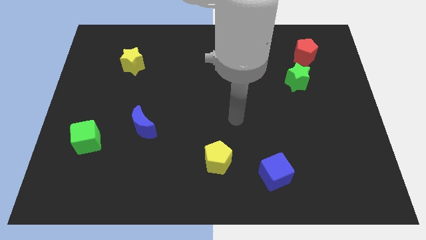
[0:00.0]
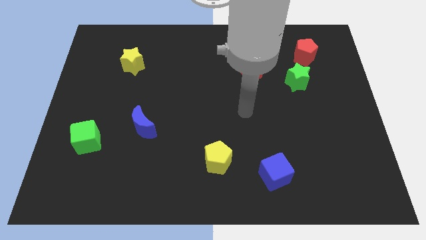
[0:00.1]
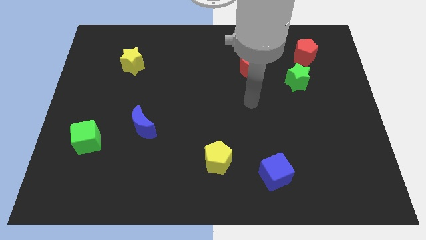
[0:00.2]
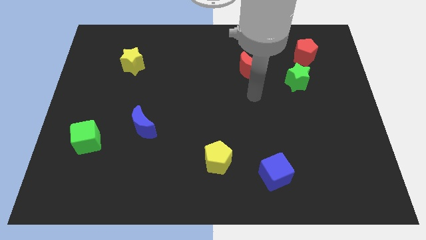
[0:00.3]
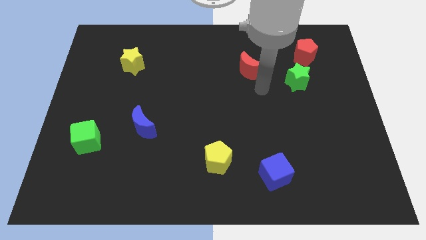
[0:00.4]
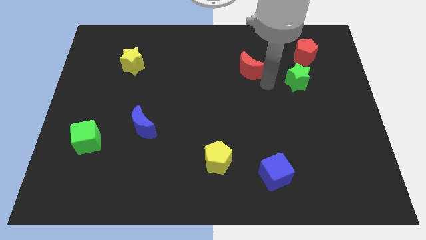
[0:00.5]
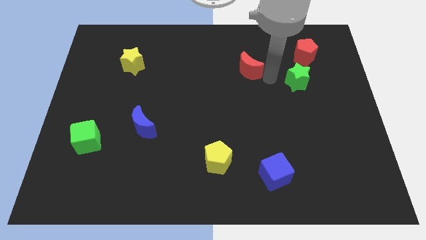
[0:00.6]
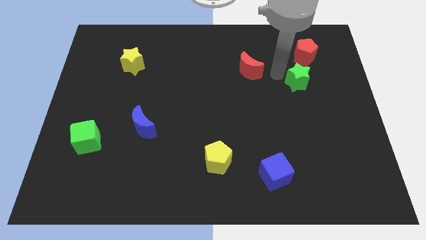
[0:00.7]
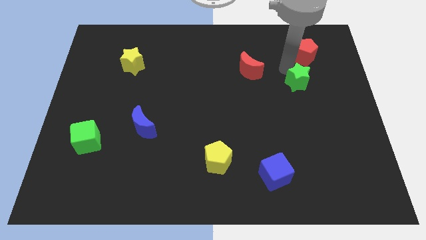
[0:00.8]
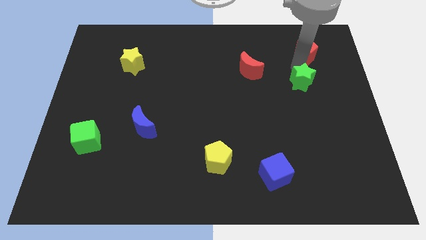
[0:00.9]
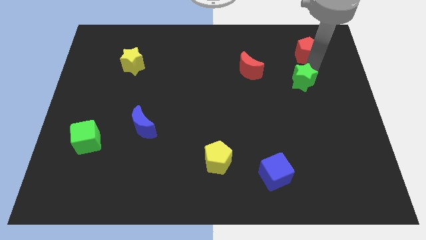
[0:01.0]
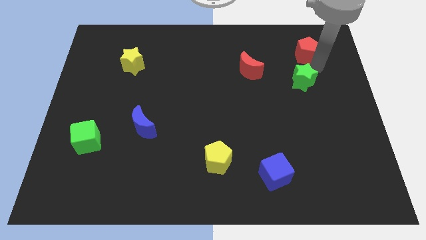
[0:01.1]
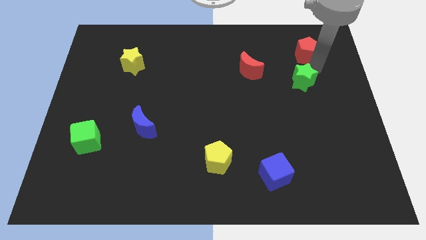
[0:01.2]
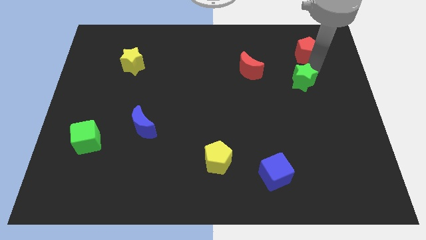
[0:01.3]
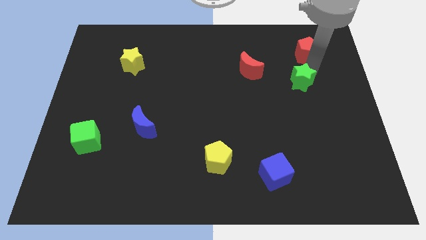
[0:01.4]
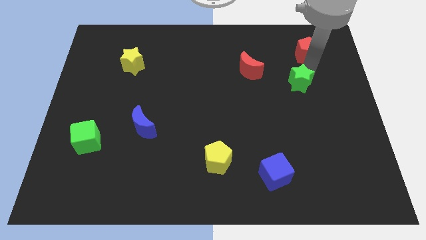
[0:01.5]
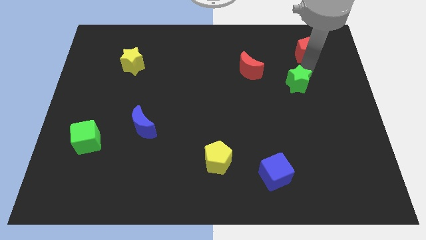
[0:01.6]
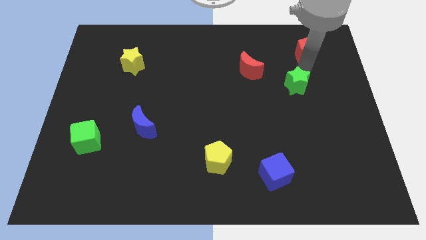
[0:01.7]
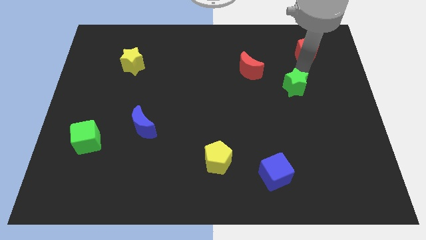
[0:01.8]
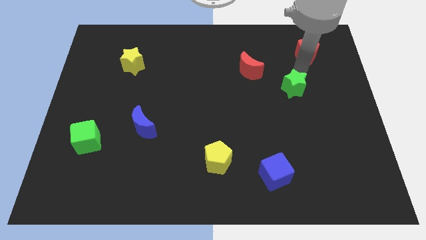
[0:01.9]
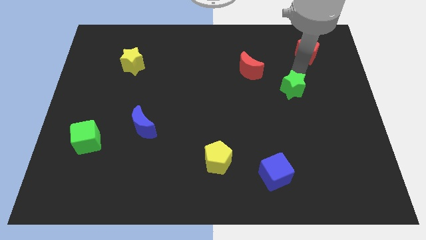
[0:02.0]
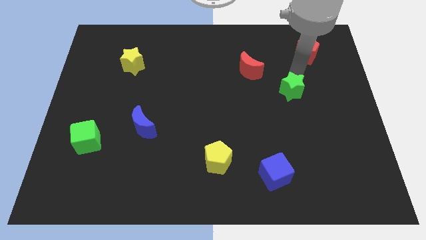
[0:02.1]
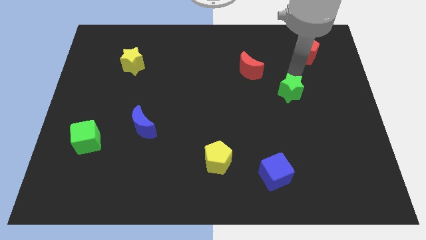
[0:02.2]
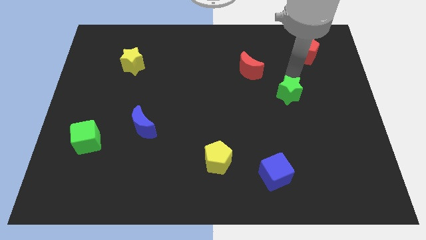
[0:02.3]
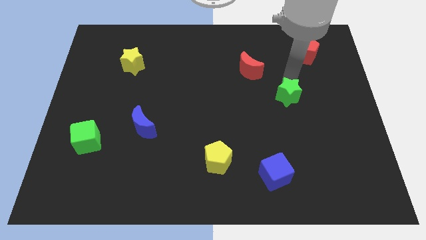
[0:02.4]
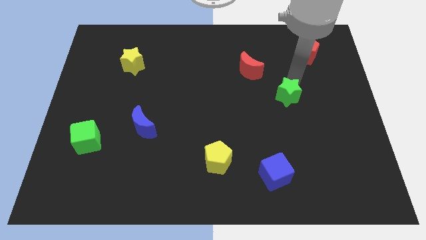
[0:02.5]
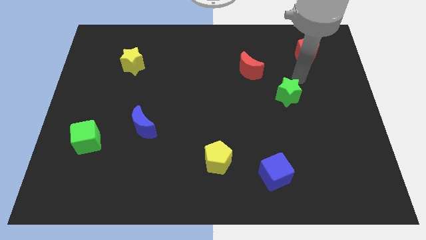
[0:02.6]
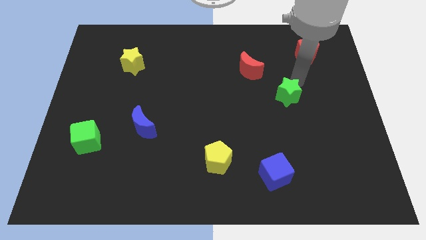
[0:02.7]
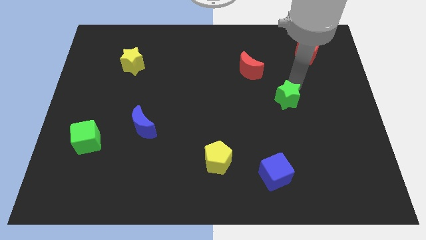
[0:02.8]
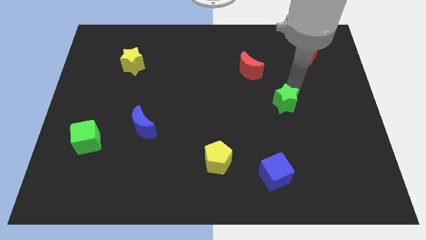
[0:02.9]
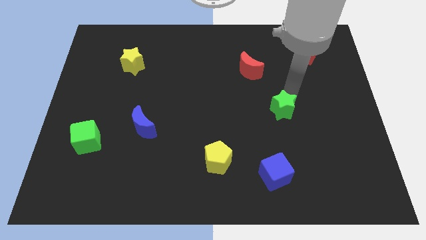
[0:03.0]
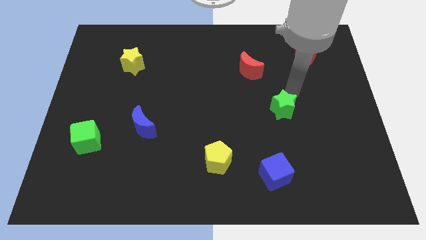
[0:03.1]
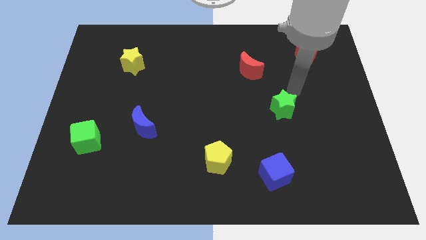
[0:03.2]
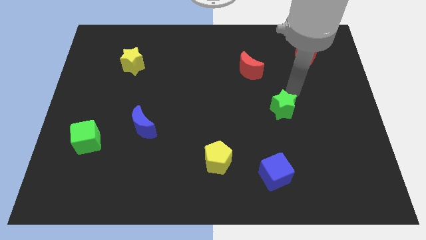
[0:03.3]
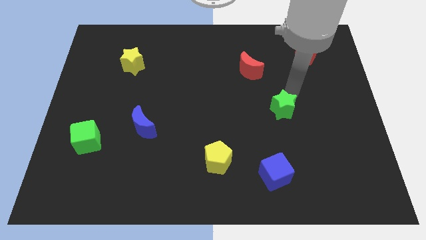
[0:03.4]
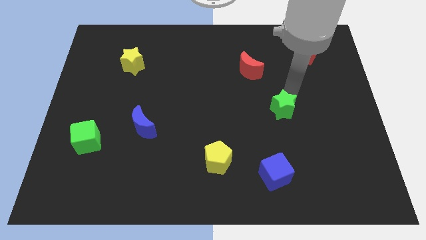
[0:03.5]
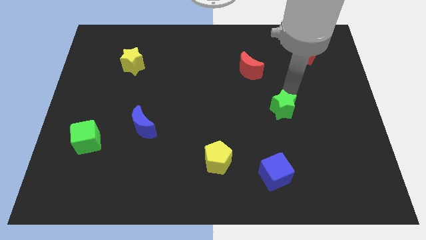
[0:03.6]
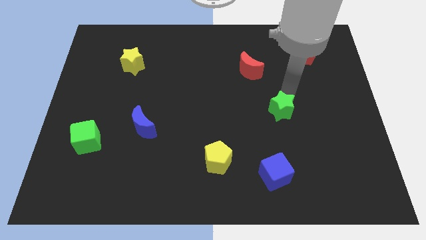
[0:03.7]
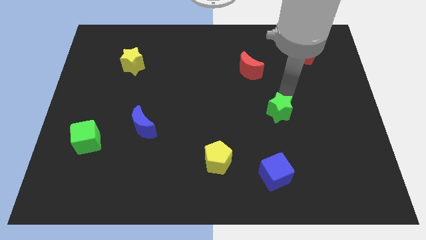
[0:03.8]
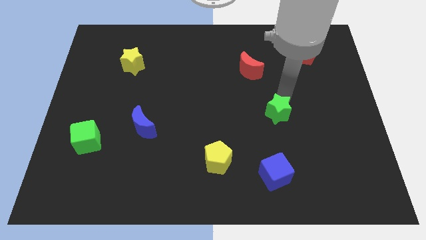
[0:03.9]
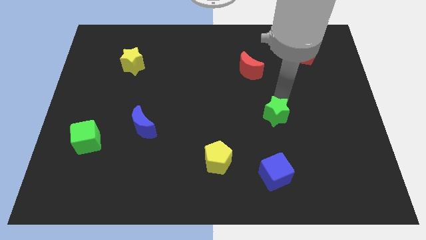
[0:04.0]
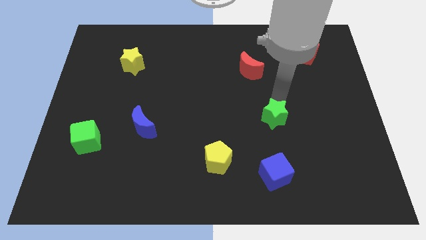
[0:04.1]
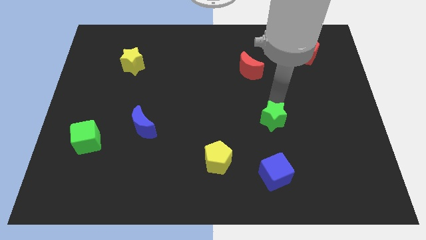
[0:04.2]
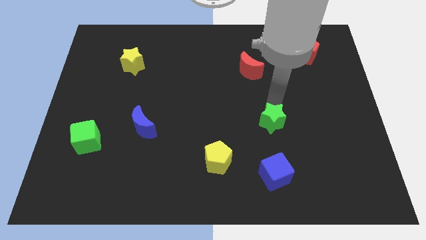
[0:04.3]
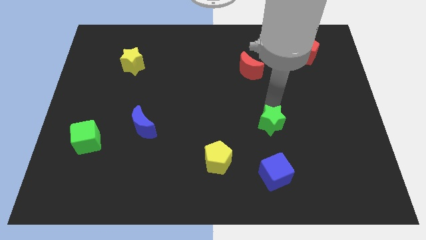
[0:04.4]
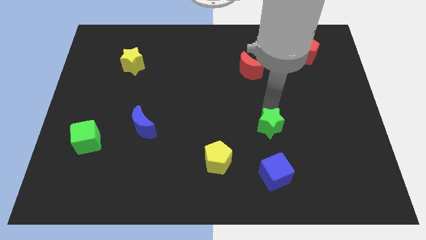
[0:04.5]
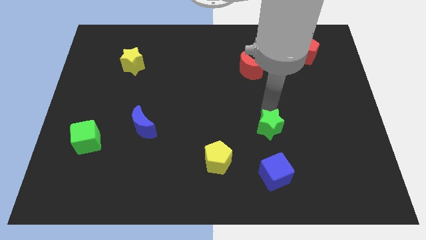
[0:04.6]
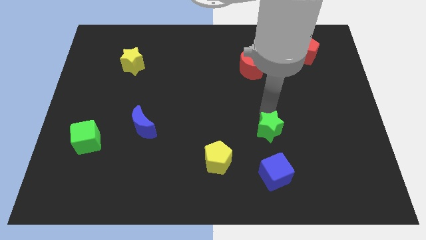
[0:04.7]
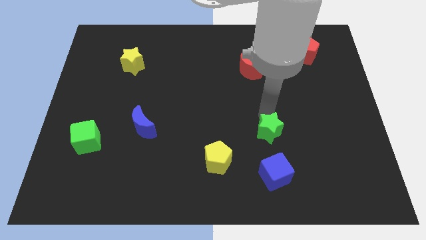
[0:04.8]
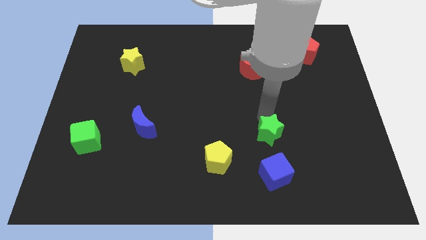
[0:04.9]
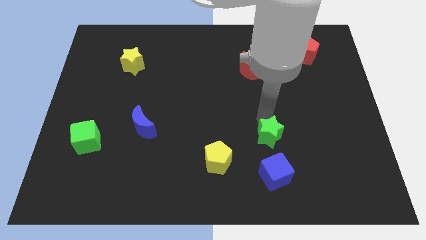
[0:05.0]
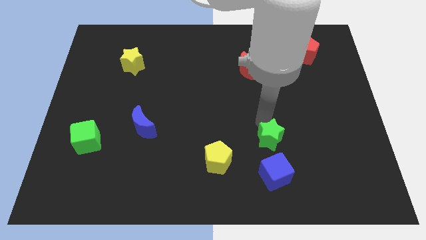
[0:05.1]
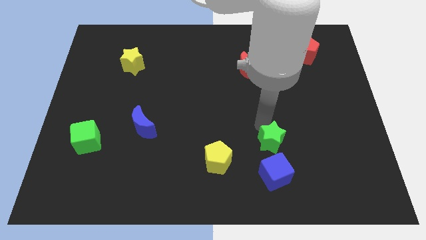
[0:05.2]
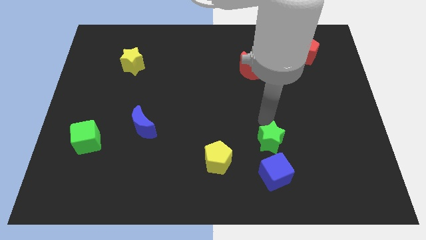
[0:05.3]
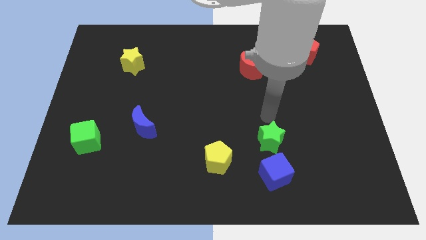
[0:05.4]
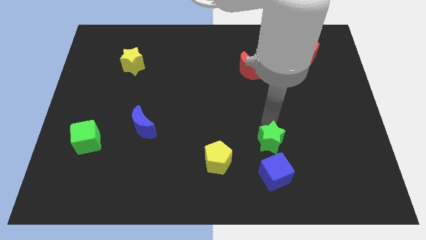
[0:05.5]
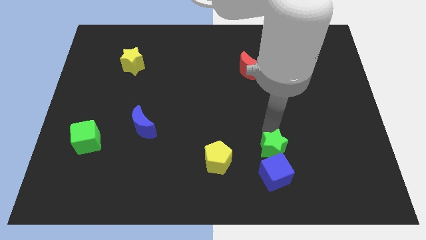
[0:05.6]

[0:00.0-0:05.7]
push the green star close to the blue cube

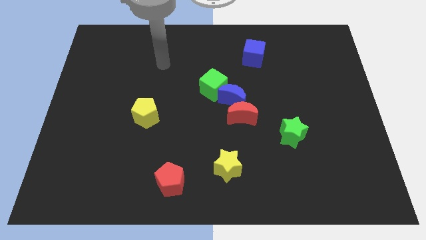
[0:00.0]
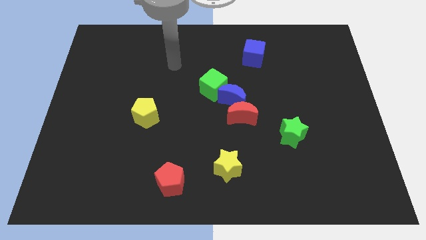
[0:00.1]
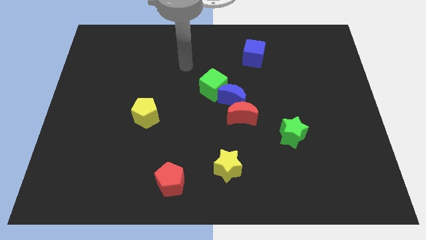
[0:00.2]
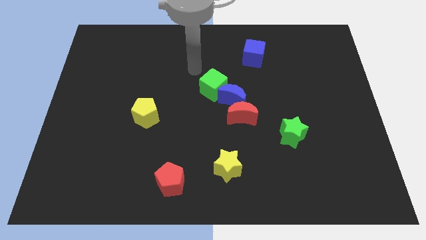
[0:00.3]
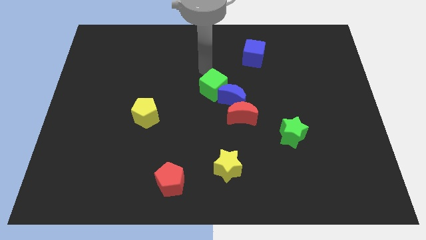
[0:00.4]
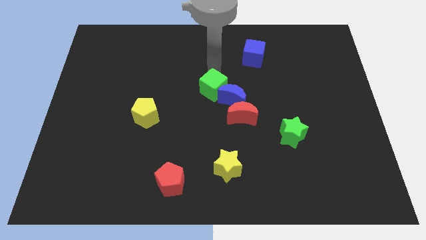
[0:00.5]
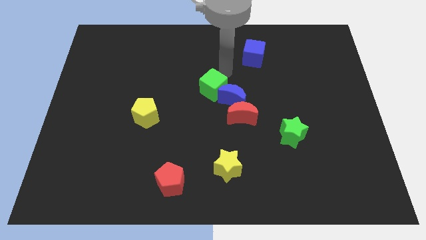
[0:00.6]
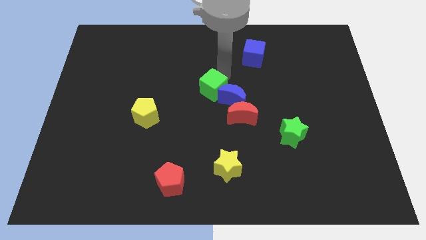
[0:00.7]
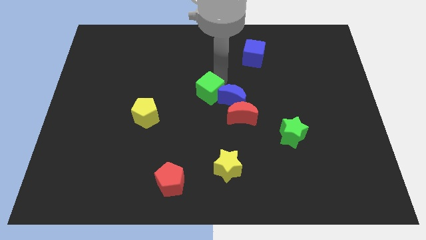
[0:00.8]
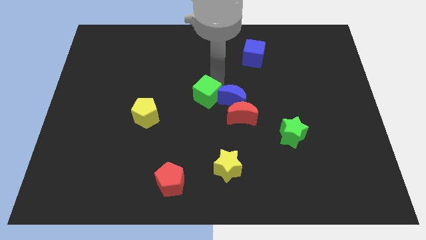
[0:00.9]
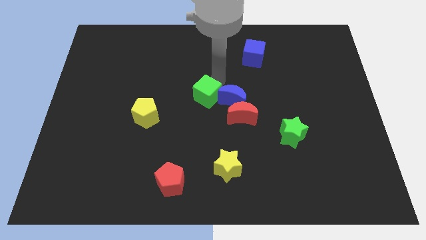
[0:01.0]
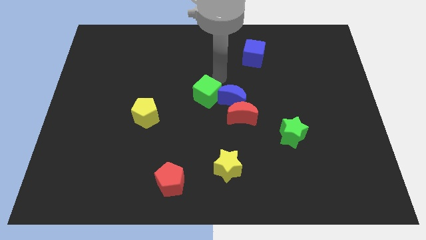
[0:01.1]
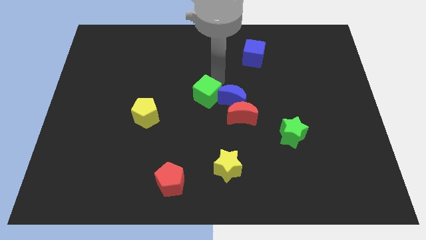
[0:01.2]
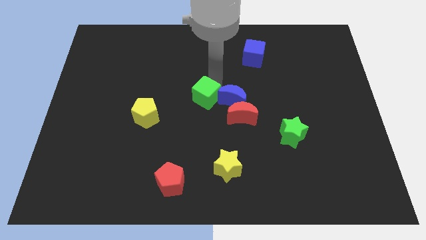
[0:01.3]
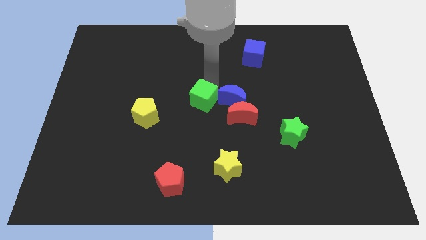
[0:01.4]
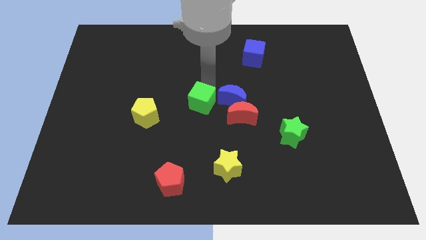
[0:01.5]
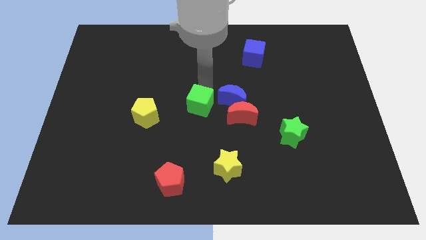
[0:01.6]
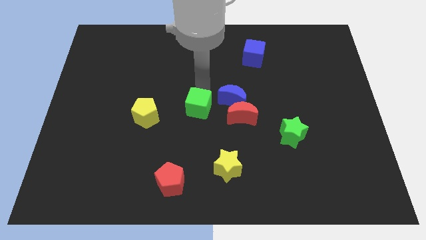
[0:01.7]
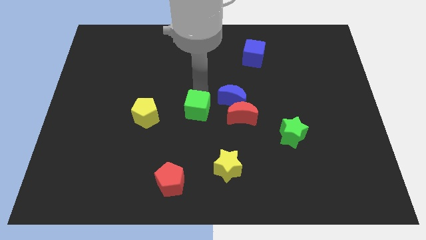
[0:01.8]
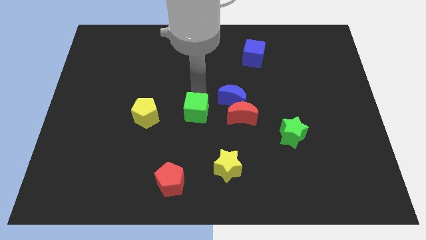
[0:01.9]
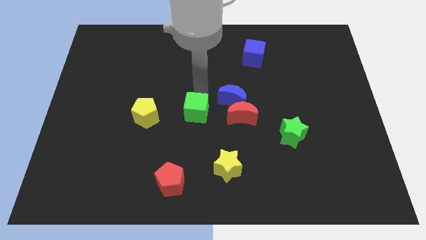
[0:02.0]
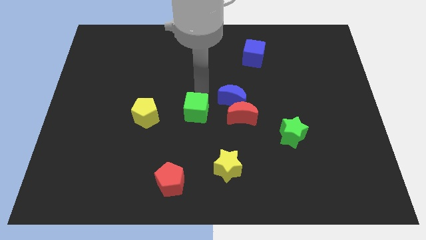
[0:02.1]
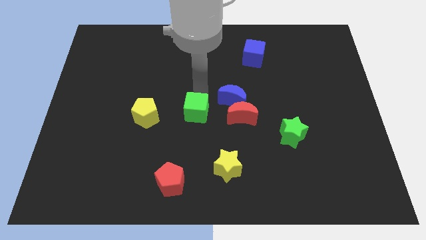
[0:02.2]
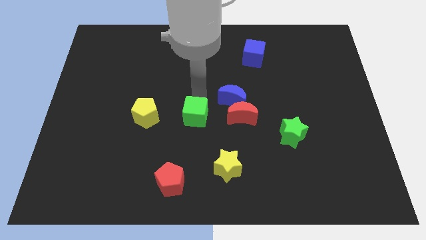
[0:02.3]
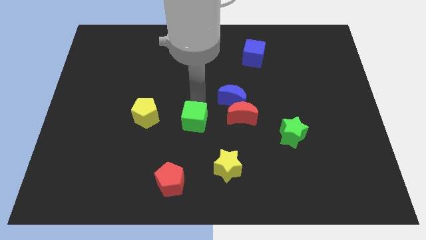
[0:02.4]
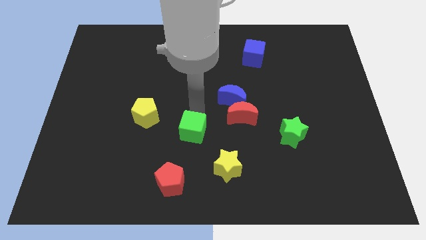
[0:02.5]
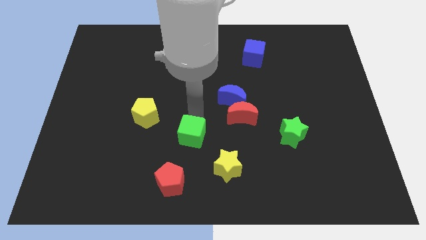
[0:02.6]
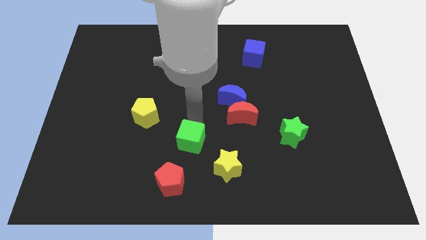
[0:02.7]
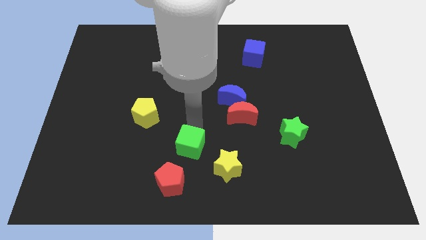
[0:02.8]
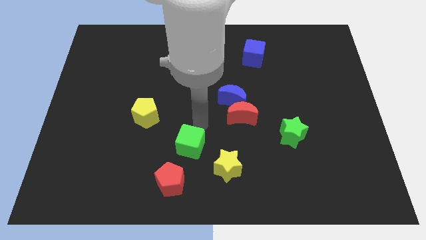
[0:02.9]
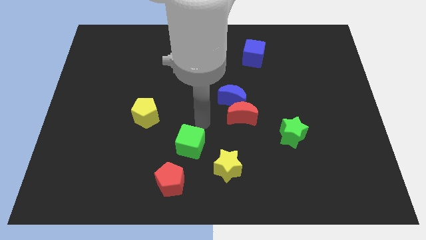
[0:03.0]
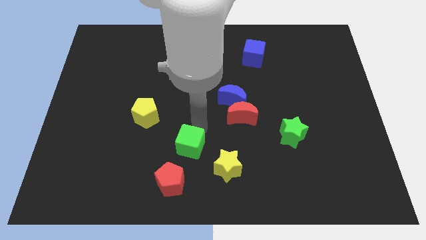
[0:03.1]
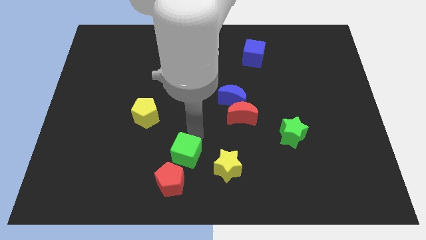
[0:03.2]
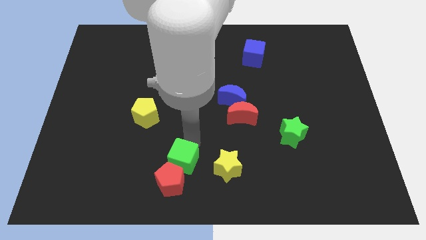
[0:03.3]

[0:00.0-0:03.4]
move the green cube towards the red pentagon
